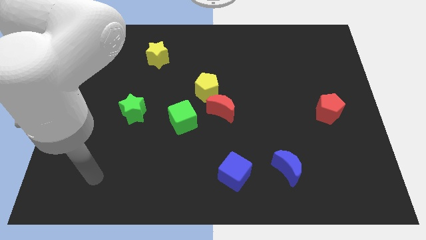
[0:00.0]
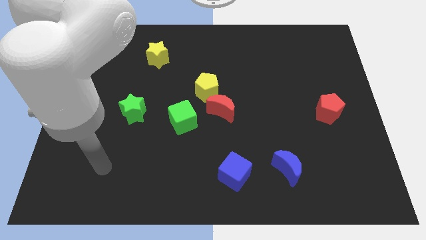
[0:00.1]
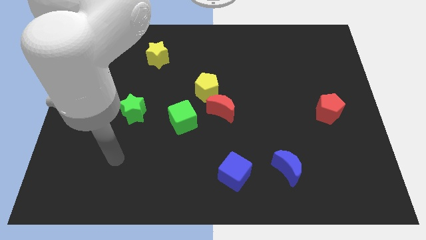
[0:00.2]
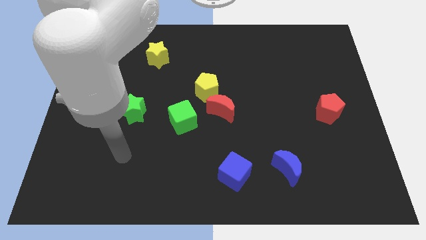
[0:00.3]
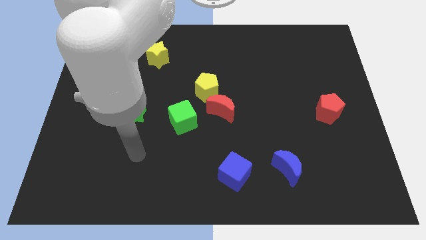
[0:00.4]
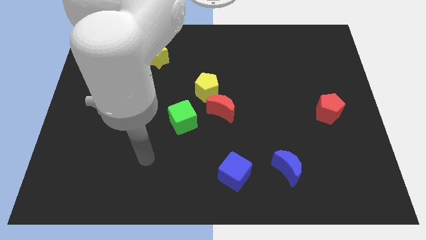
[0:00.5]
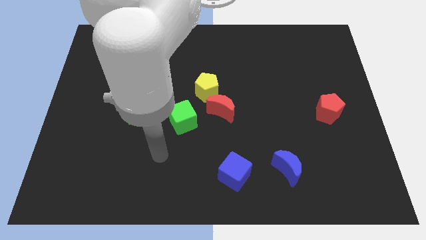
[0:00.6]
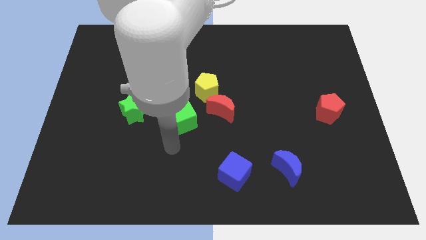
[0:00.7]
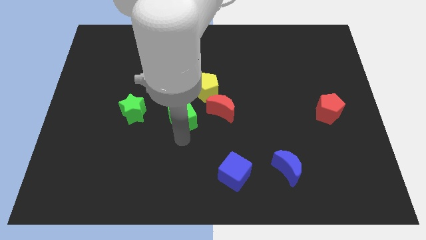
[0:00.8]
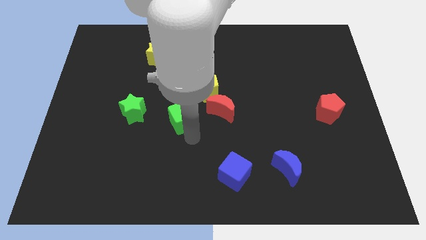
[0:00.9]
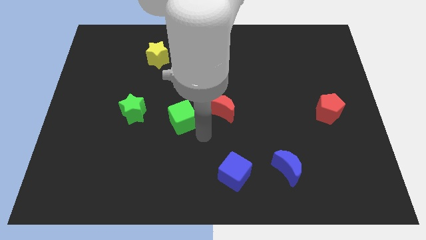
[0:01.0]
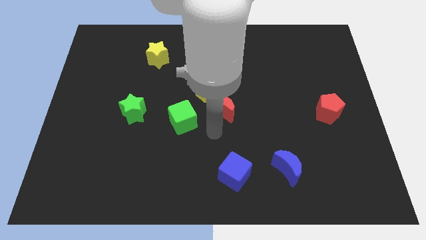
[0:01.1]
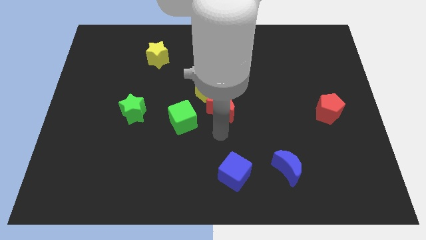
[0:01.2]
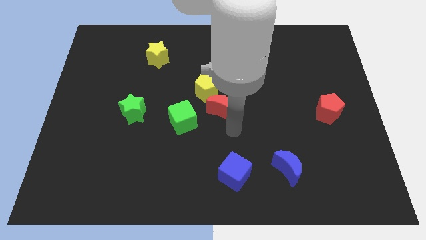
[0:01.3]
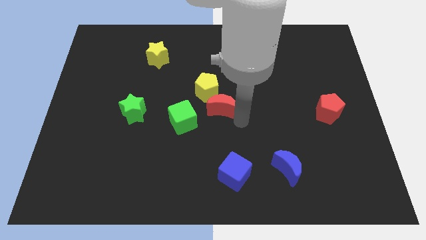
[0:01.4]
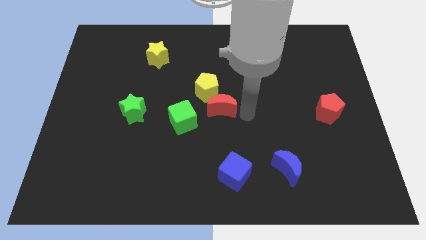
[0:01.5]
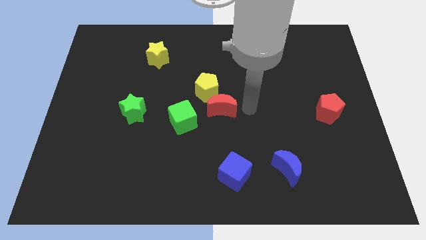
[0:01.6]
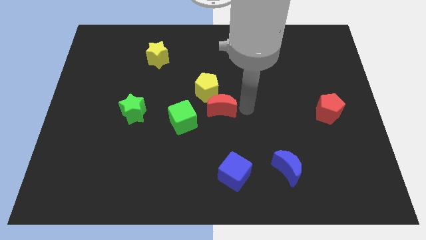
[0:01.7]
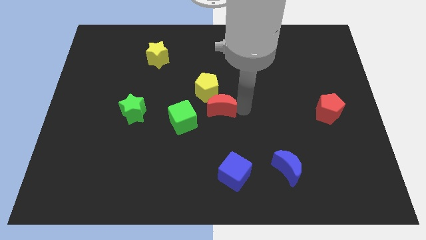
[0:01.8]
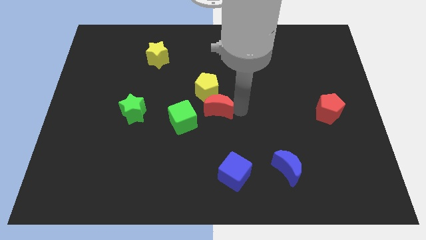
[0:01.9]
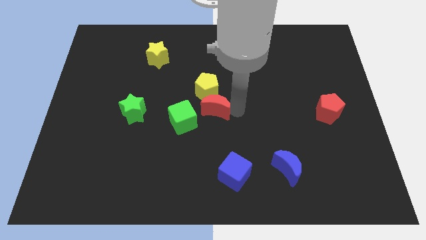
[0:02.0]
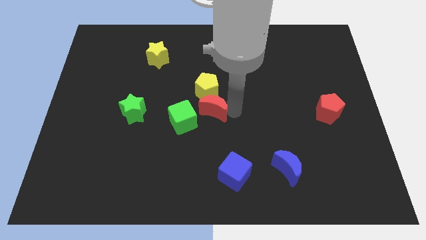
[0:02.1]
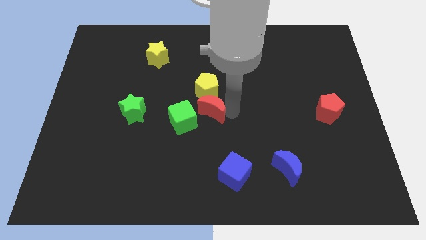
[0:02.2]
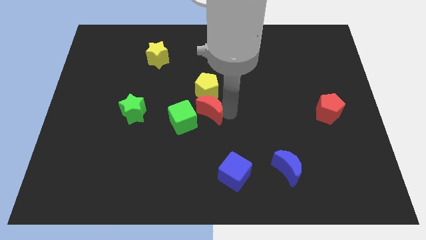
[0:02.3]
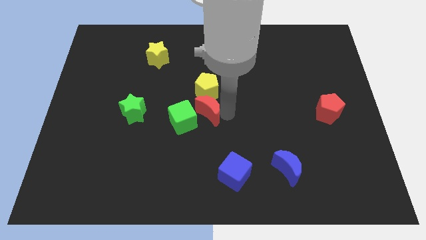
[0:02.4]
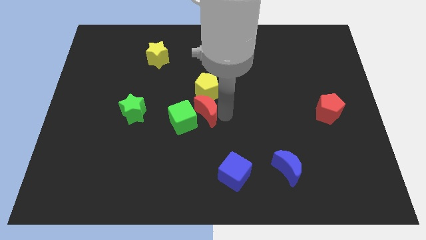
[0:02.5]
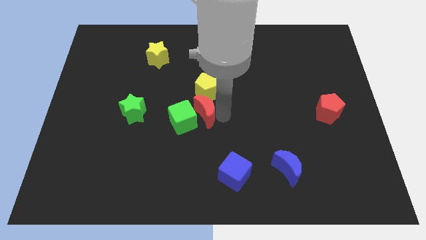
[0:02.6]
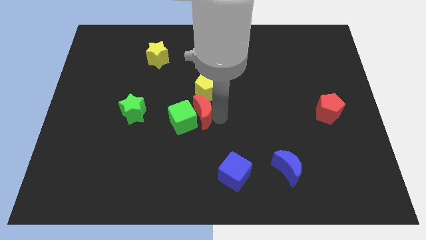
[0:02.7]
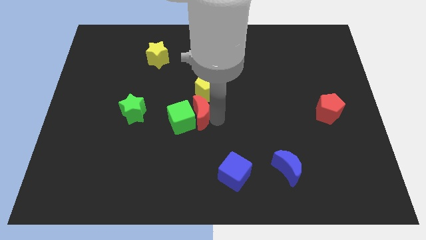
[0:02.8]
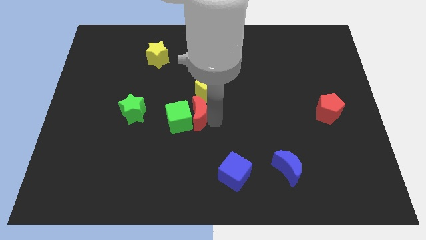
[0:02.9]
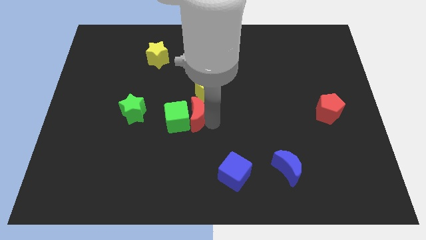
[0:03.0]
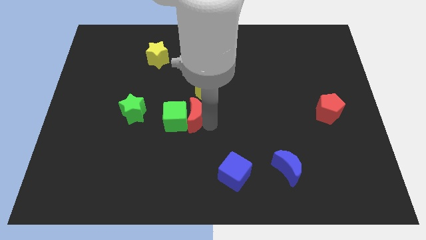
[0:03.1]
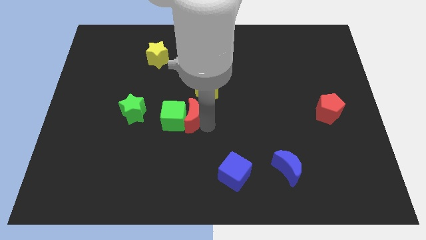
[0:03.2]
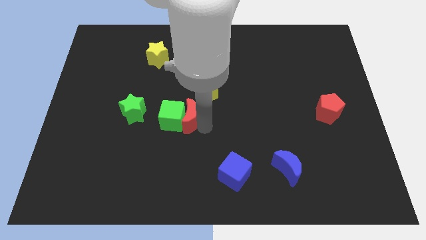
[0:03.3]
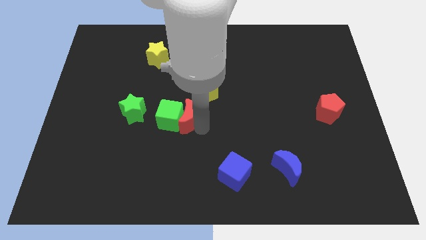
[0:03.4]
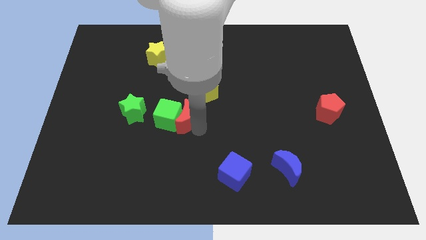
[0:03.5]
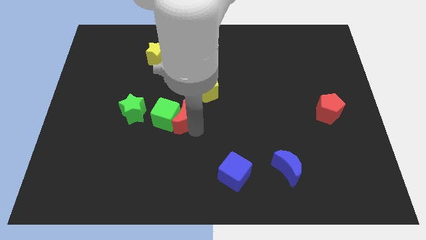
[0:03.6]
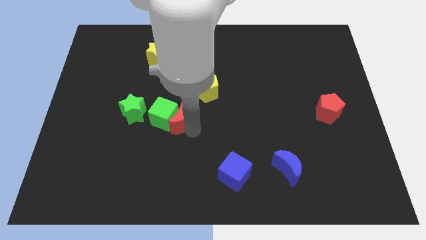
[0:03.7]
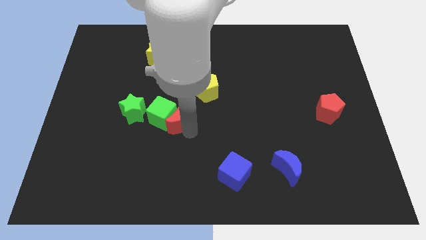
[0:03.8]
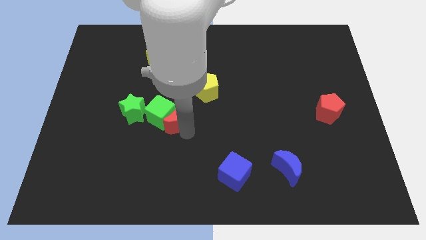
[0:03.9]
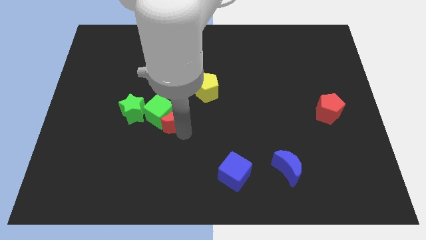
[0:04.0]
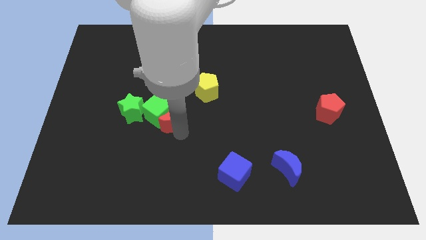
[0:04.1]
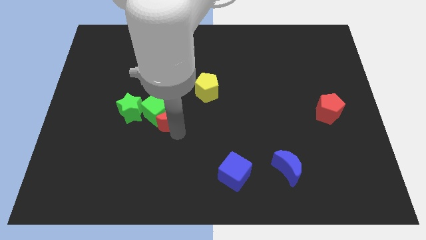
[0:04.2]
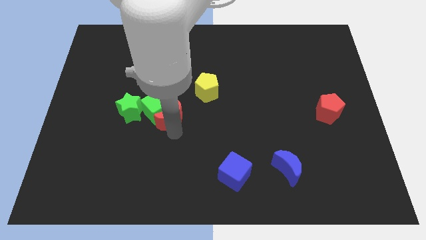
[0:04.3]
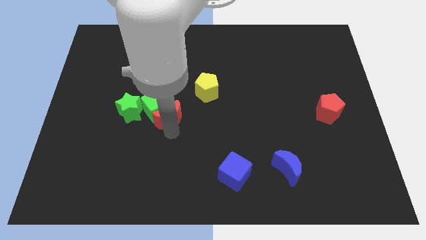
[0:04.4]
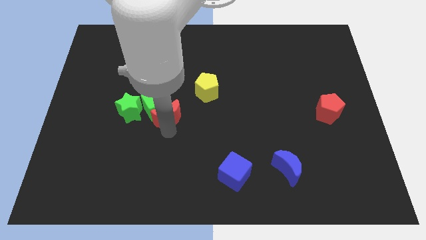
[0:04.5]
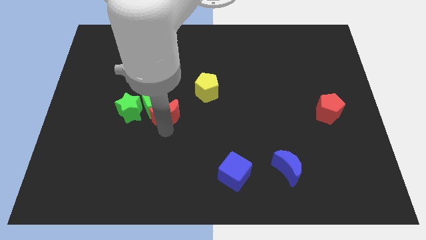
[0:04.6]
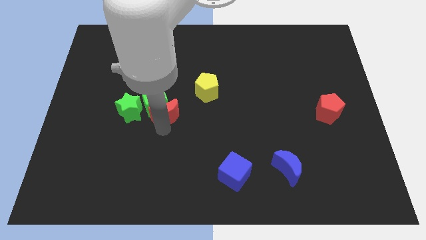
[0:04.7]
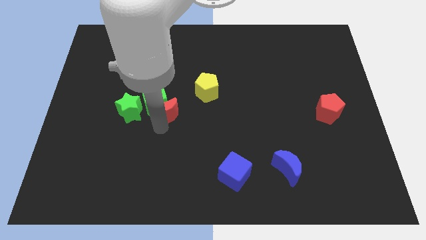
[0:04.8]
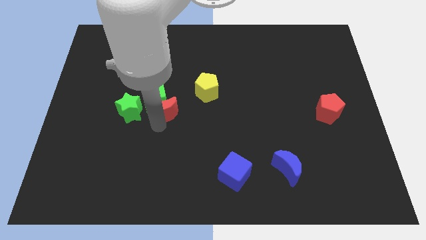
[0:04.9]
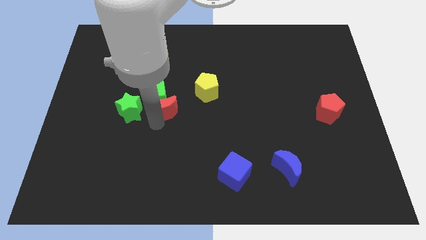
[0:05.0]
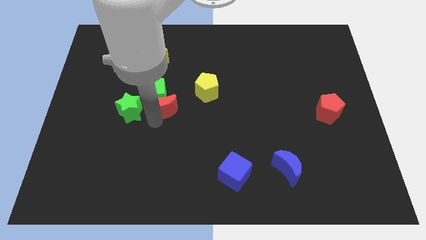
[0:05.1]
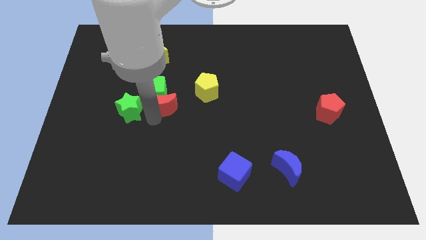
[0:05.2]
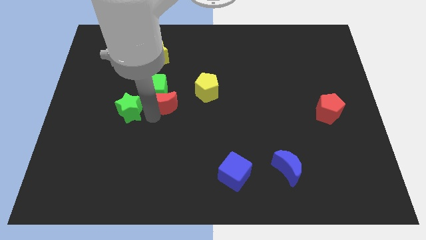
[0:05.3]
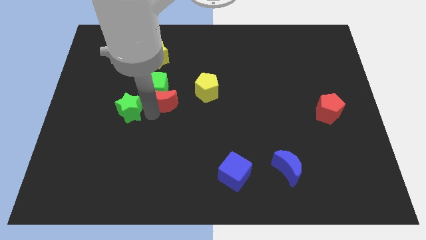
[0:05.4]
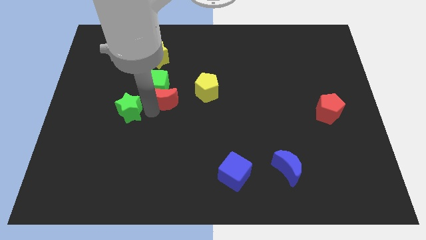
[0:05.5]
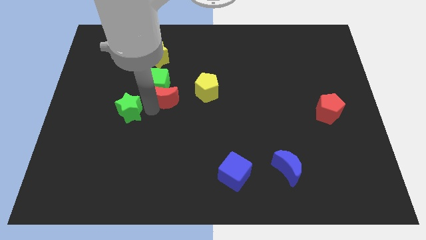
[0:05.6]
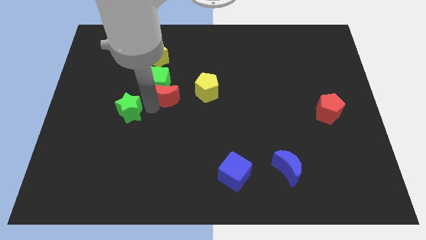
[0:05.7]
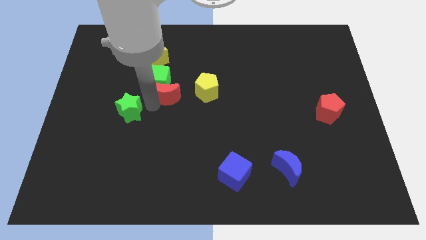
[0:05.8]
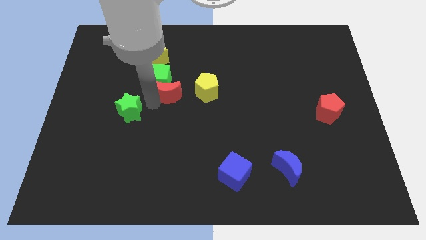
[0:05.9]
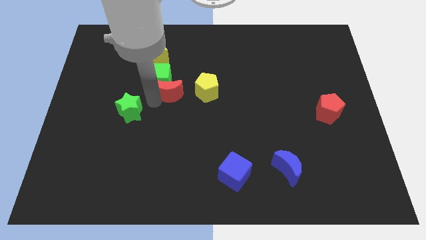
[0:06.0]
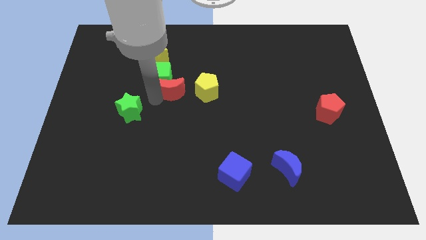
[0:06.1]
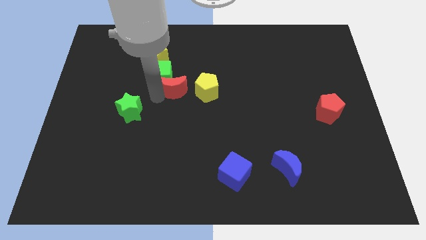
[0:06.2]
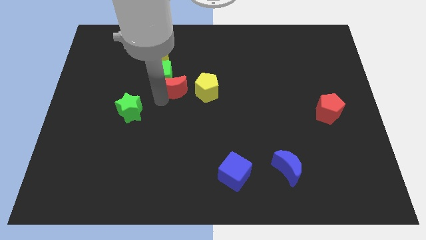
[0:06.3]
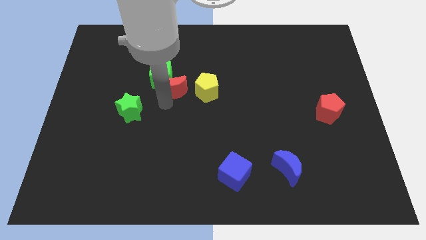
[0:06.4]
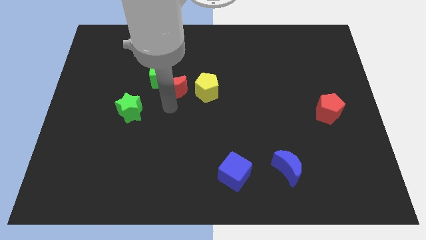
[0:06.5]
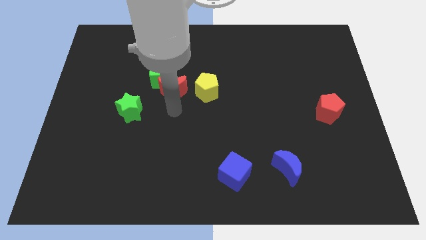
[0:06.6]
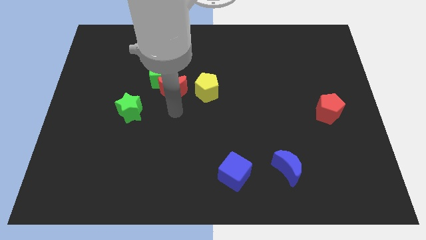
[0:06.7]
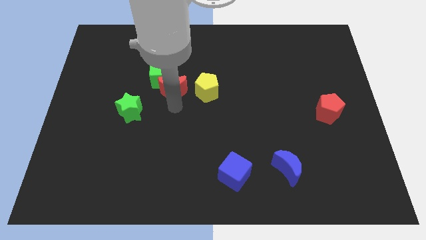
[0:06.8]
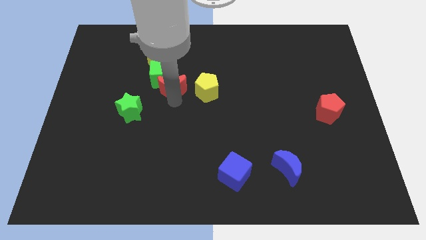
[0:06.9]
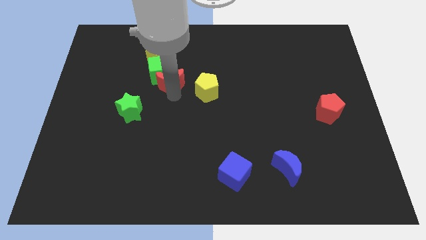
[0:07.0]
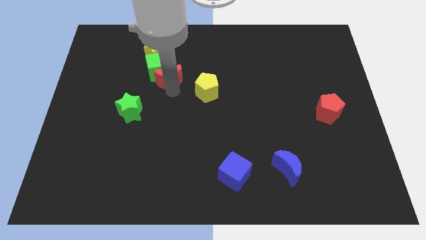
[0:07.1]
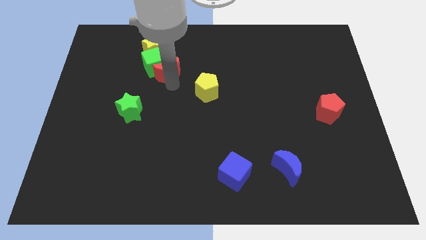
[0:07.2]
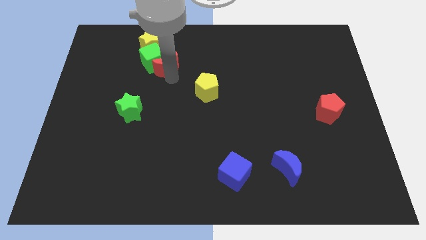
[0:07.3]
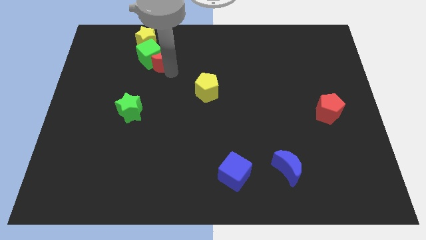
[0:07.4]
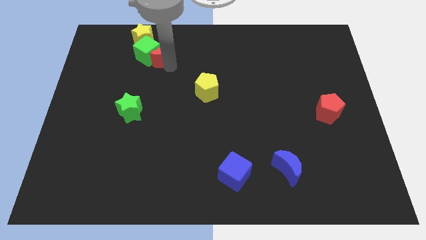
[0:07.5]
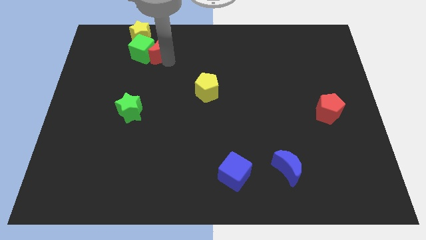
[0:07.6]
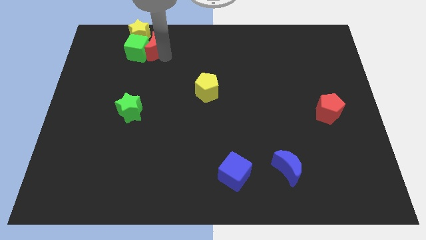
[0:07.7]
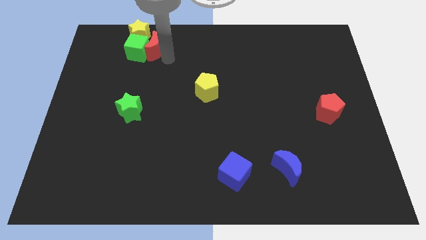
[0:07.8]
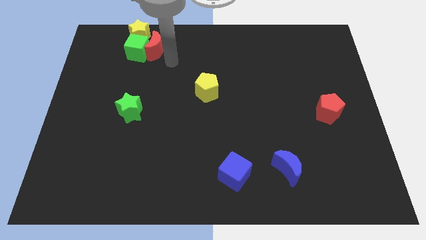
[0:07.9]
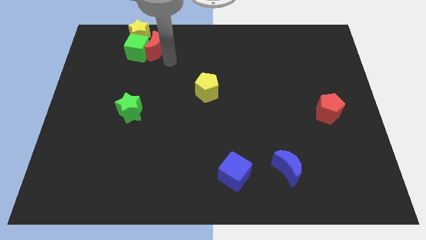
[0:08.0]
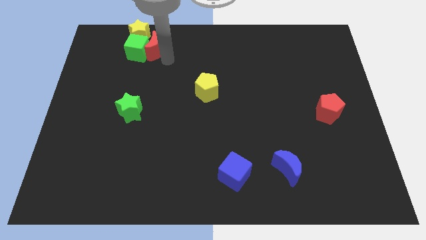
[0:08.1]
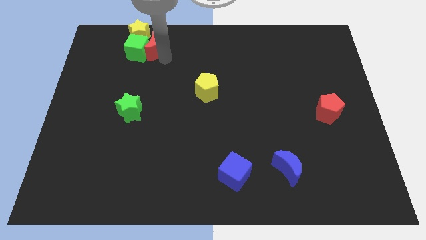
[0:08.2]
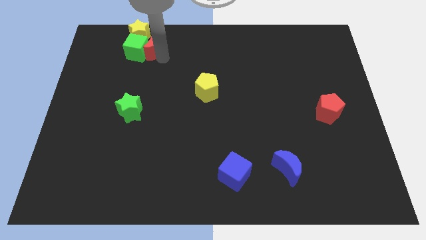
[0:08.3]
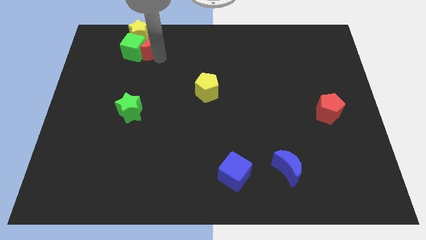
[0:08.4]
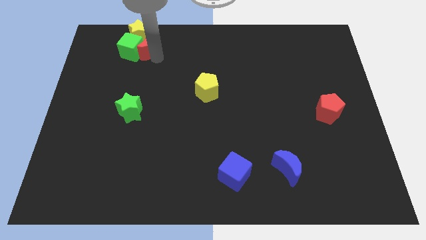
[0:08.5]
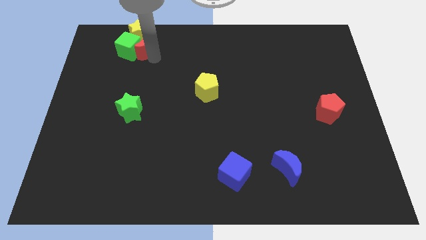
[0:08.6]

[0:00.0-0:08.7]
slide the red moon towards the yellow star
